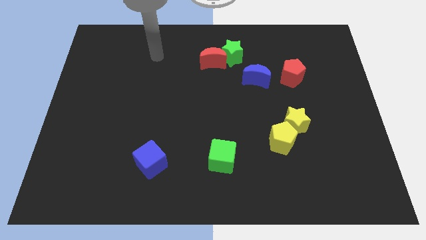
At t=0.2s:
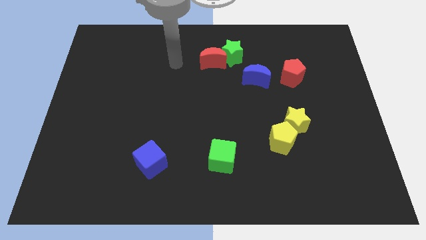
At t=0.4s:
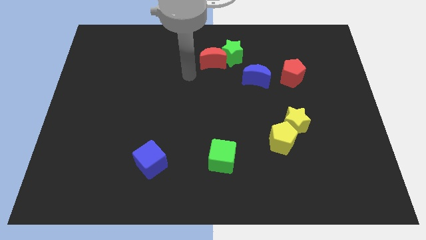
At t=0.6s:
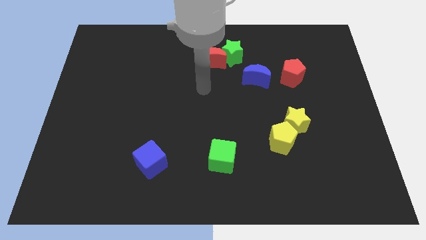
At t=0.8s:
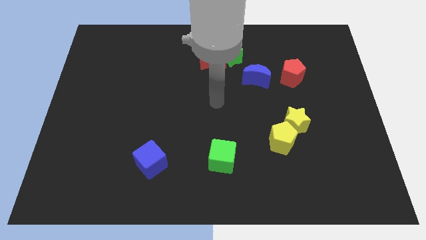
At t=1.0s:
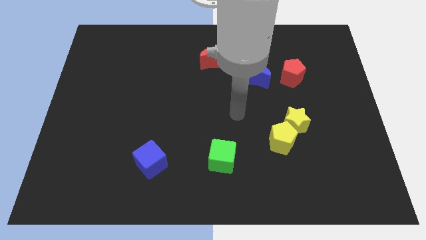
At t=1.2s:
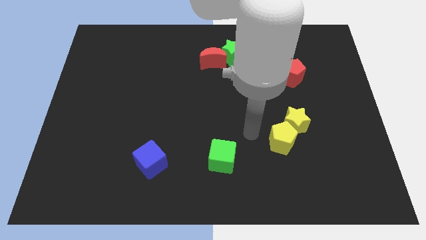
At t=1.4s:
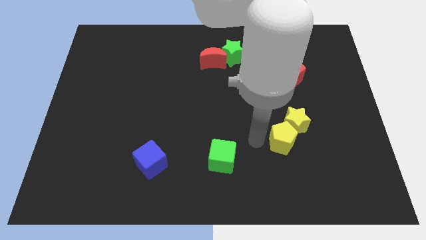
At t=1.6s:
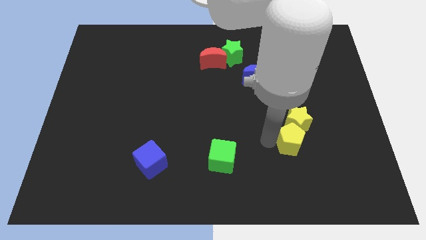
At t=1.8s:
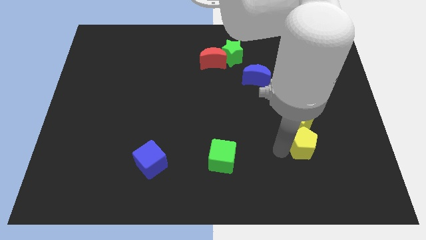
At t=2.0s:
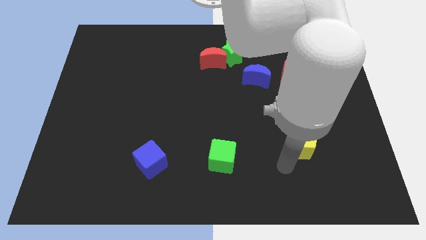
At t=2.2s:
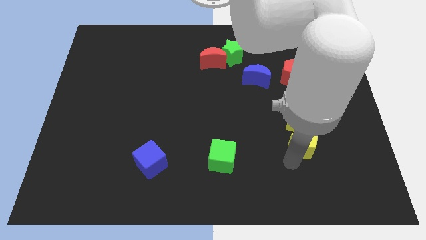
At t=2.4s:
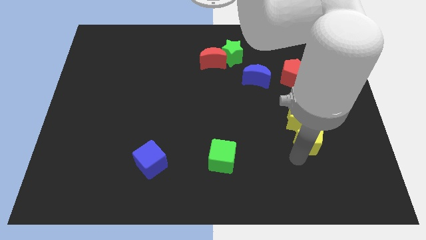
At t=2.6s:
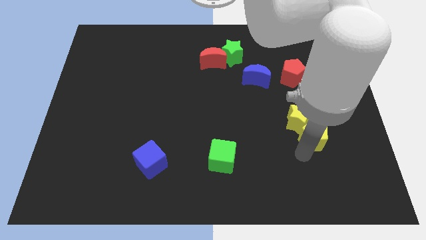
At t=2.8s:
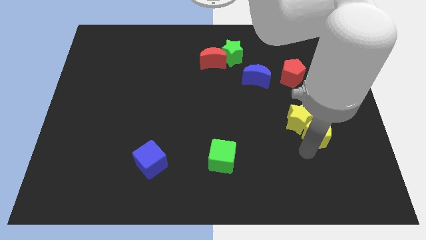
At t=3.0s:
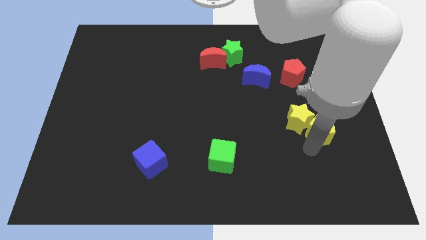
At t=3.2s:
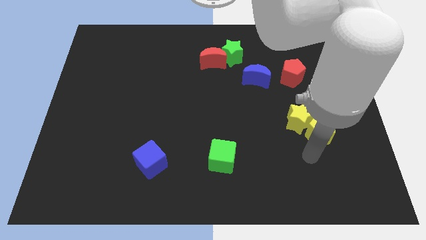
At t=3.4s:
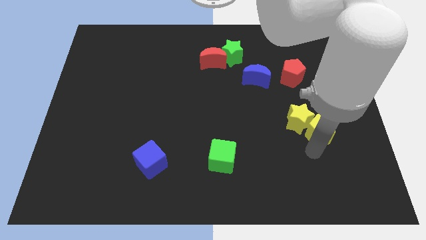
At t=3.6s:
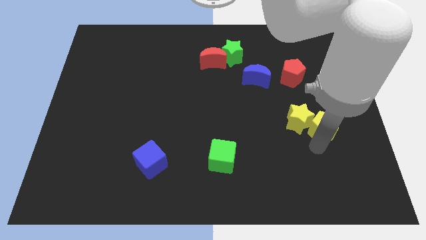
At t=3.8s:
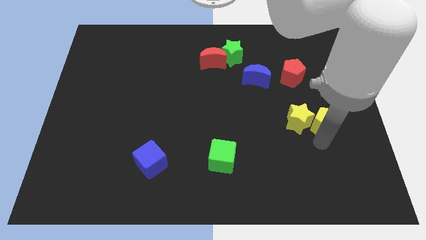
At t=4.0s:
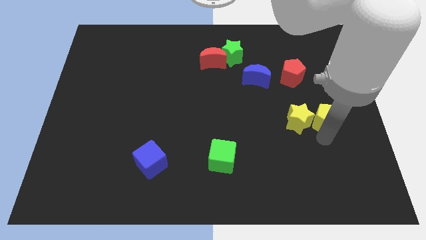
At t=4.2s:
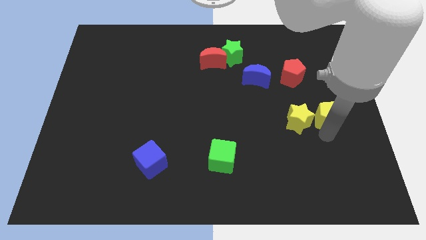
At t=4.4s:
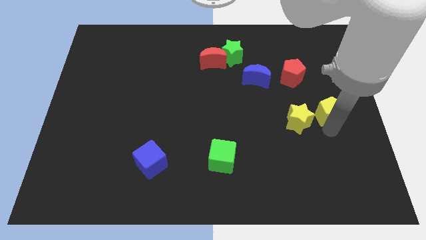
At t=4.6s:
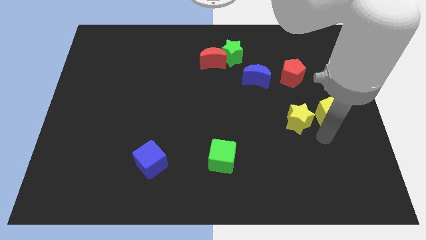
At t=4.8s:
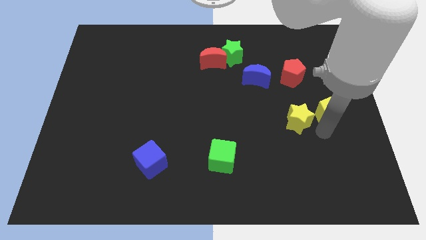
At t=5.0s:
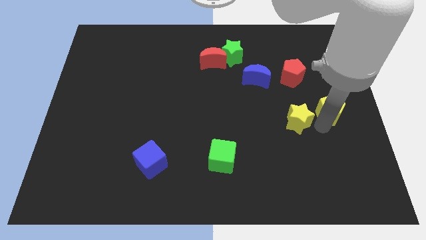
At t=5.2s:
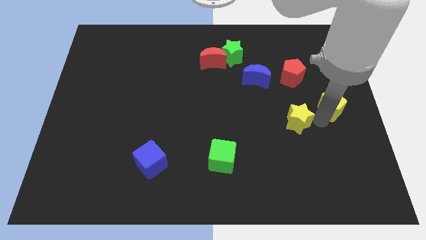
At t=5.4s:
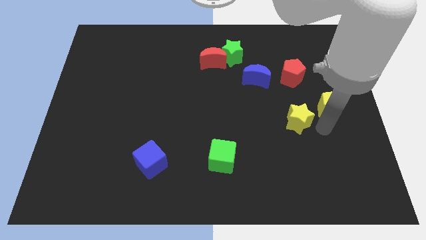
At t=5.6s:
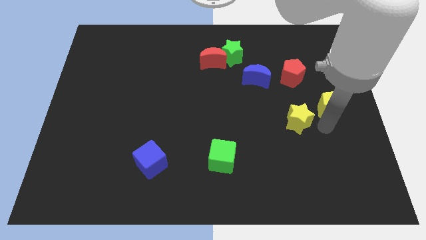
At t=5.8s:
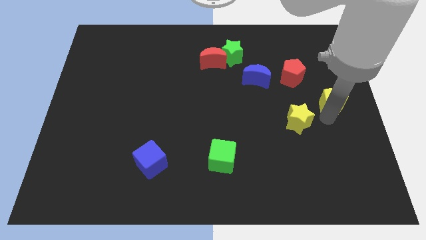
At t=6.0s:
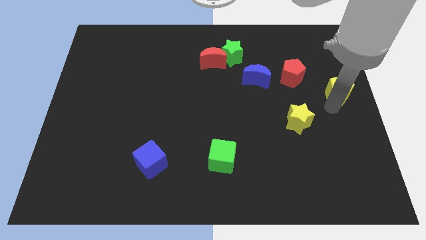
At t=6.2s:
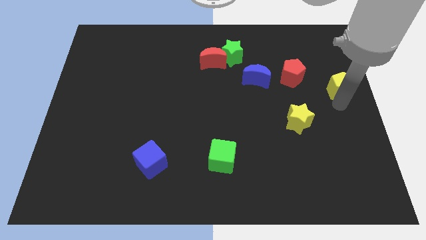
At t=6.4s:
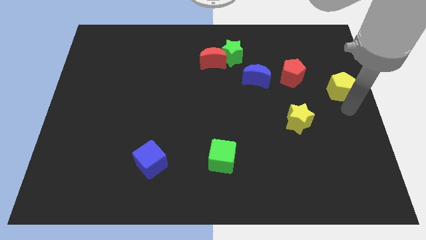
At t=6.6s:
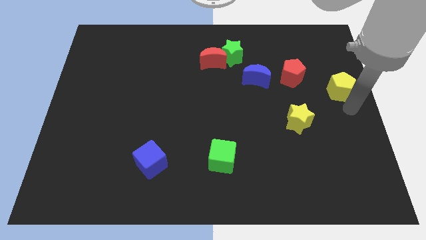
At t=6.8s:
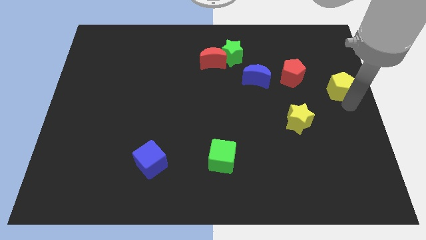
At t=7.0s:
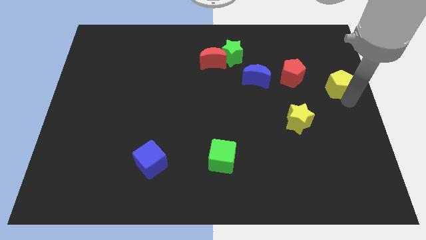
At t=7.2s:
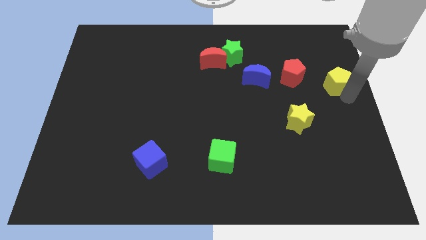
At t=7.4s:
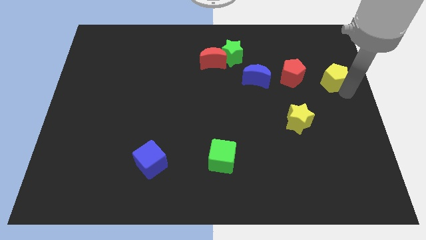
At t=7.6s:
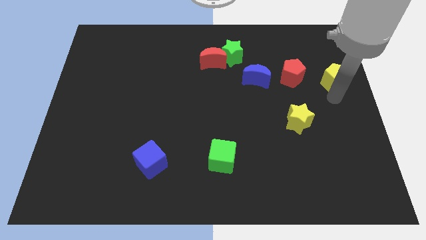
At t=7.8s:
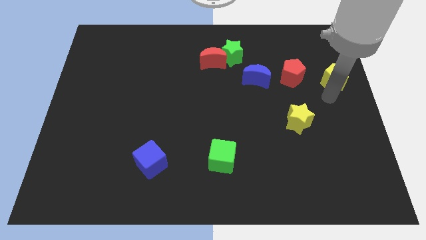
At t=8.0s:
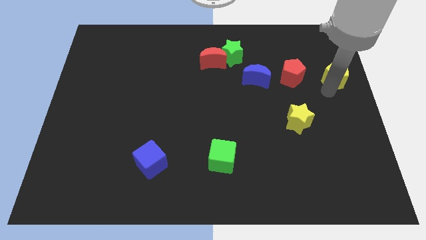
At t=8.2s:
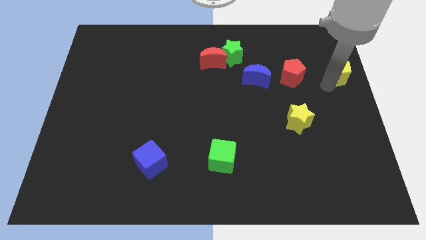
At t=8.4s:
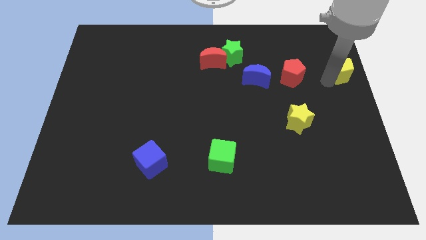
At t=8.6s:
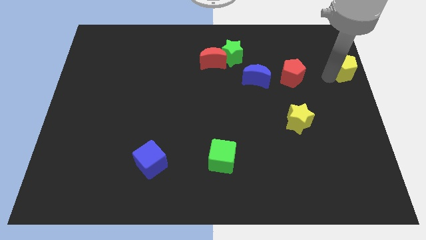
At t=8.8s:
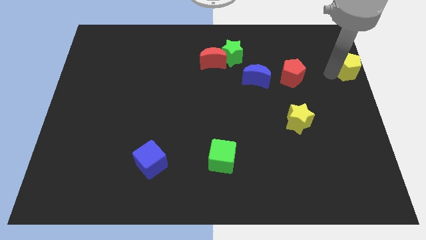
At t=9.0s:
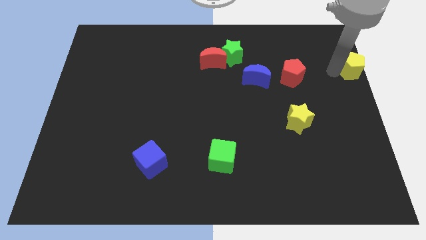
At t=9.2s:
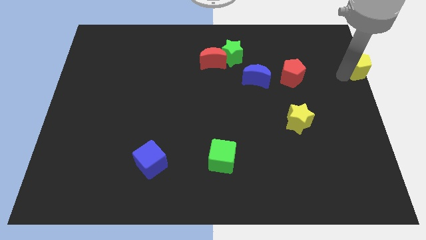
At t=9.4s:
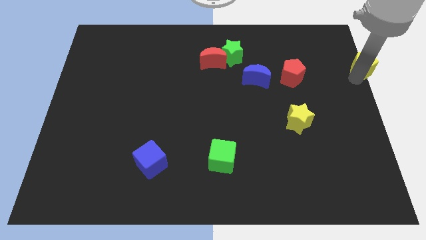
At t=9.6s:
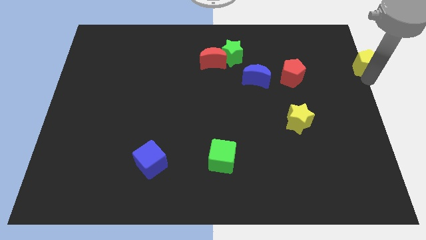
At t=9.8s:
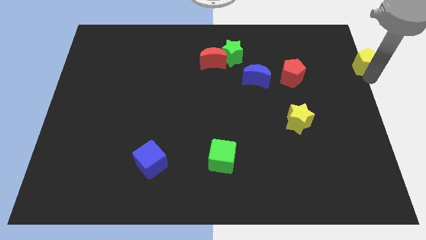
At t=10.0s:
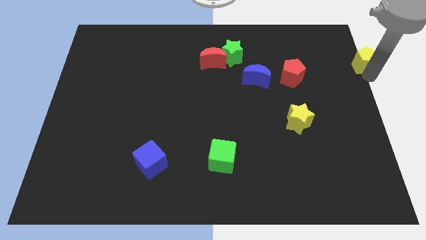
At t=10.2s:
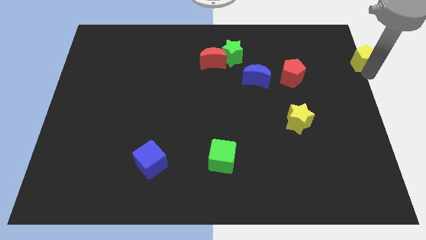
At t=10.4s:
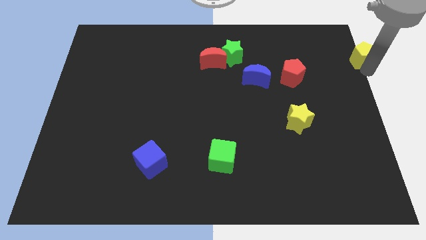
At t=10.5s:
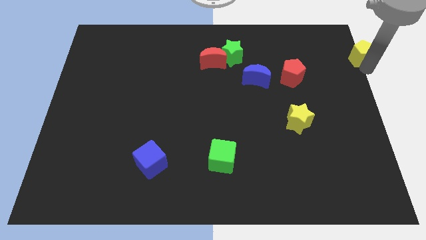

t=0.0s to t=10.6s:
move the yellow pentagon to the top right

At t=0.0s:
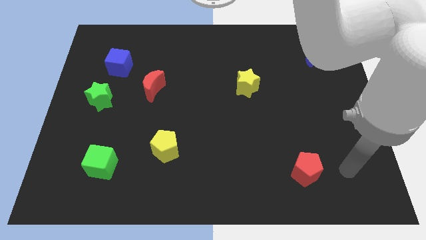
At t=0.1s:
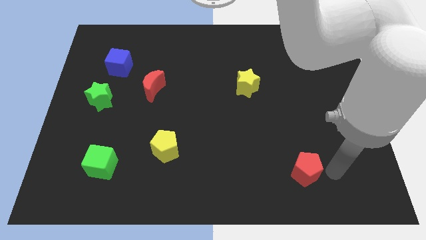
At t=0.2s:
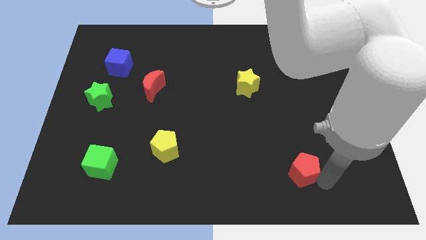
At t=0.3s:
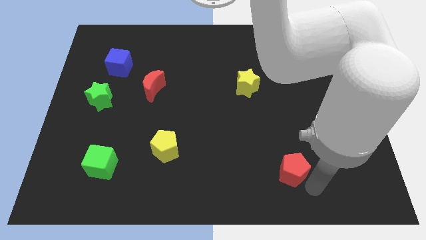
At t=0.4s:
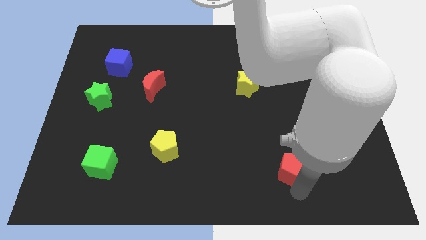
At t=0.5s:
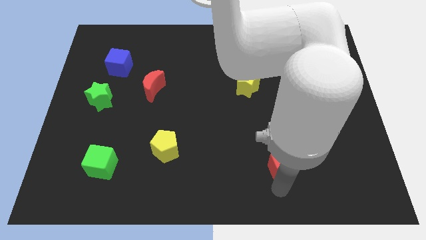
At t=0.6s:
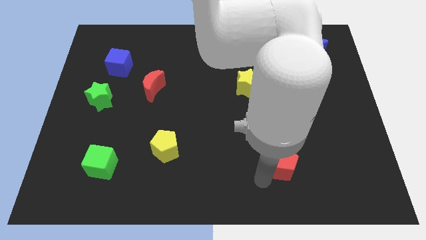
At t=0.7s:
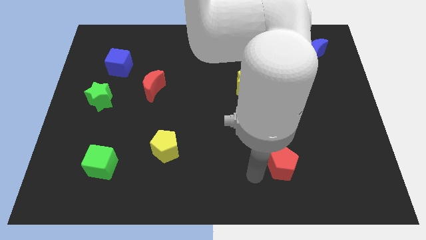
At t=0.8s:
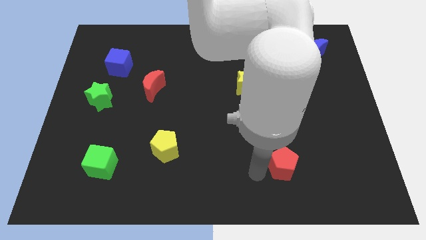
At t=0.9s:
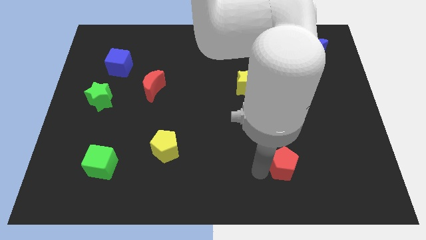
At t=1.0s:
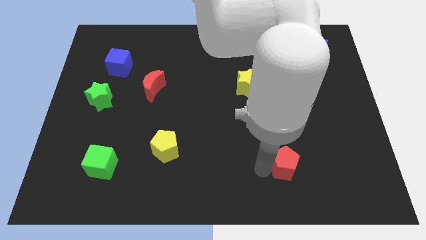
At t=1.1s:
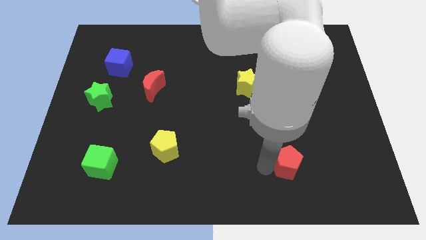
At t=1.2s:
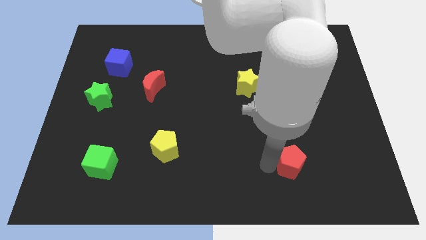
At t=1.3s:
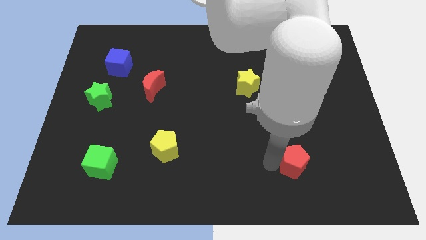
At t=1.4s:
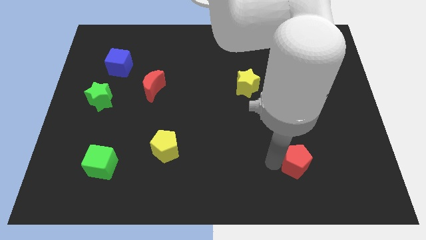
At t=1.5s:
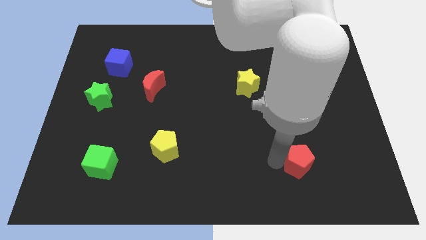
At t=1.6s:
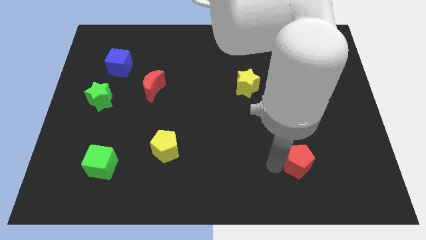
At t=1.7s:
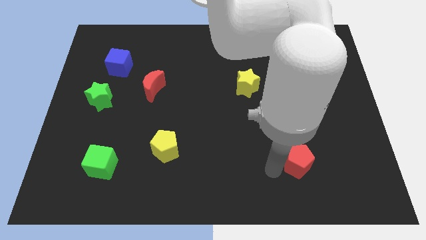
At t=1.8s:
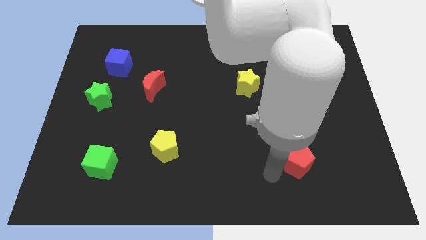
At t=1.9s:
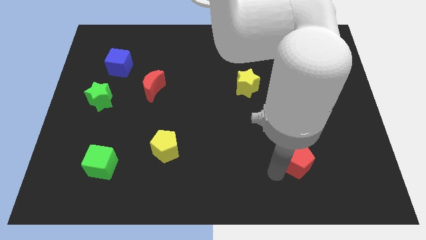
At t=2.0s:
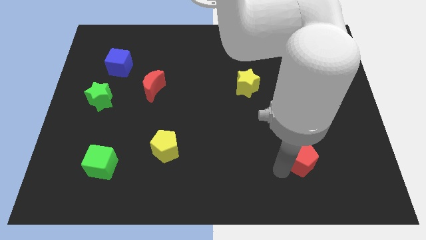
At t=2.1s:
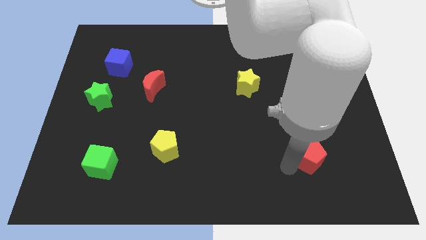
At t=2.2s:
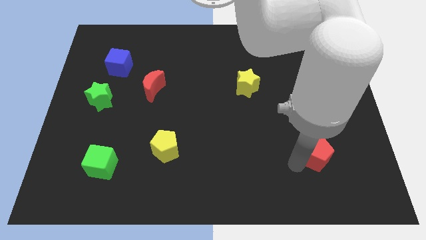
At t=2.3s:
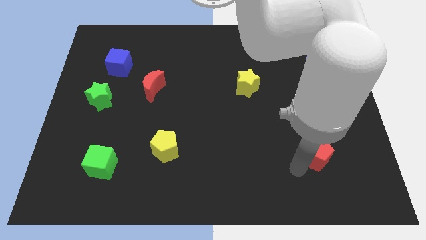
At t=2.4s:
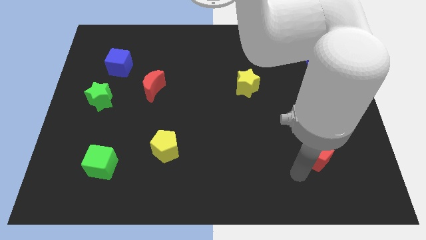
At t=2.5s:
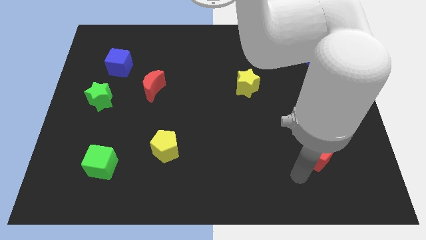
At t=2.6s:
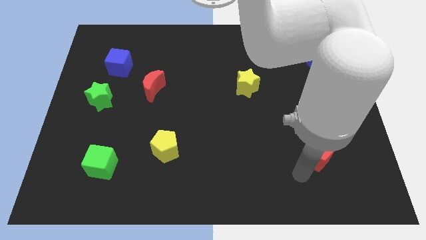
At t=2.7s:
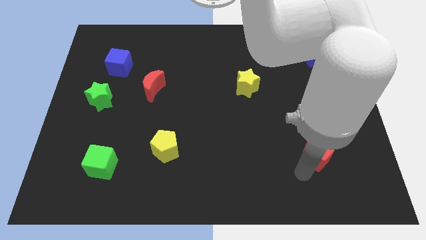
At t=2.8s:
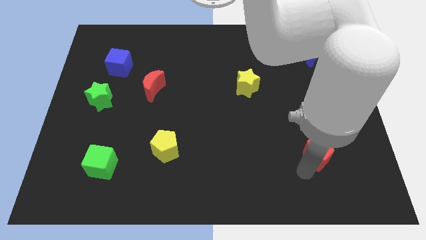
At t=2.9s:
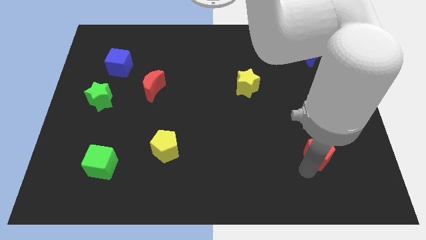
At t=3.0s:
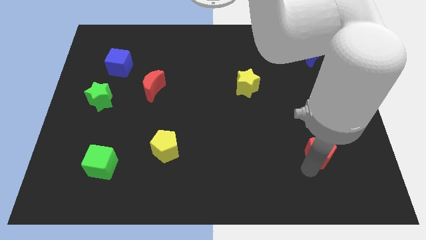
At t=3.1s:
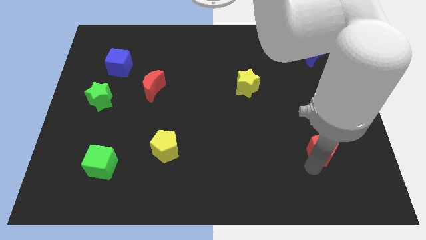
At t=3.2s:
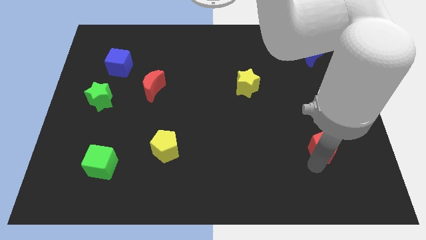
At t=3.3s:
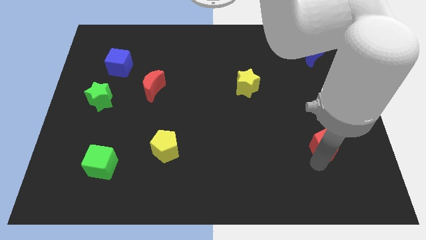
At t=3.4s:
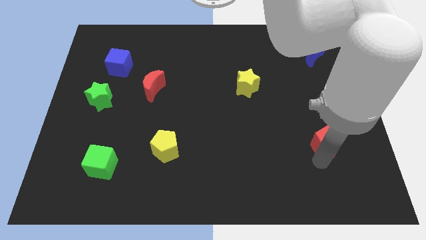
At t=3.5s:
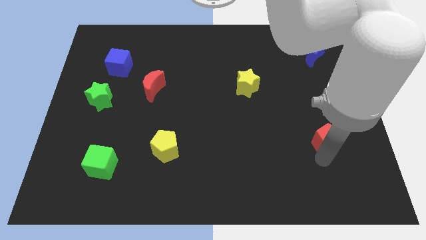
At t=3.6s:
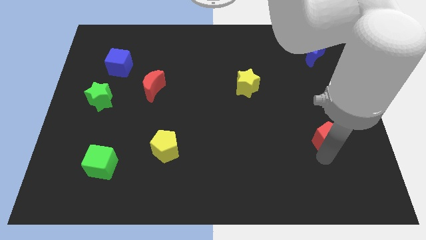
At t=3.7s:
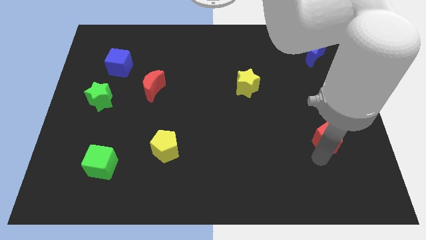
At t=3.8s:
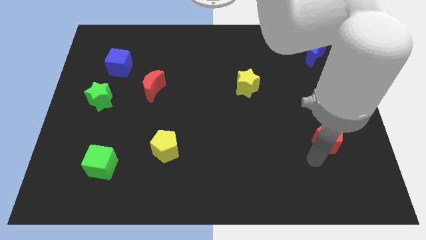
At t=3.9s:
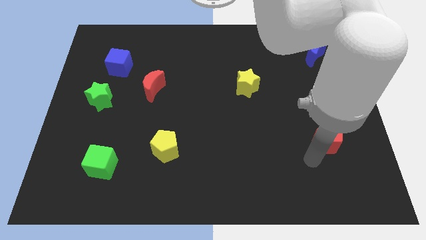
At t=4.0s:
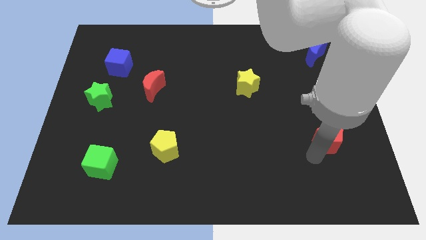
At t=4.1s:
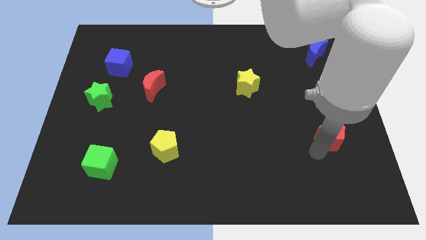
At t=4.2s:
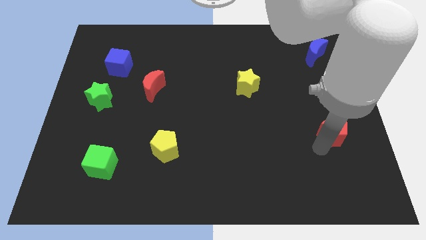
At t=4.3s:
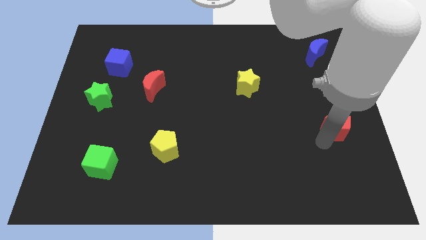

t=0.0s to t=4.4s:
put the red pentagon to the right side of the board
